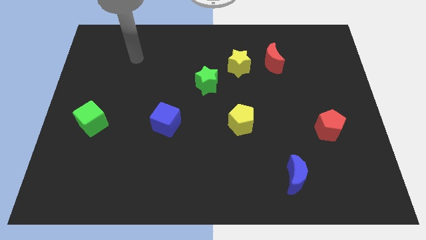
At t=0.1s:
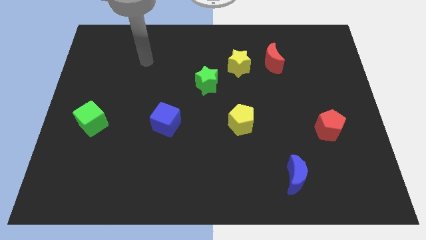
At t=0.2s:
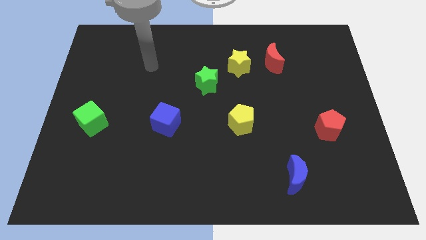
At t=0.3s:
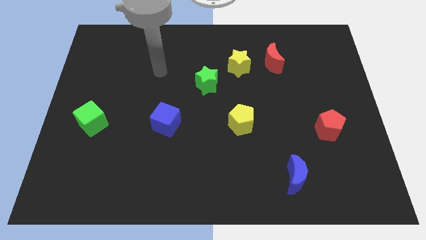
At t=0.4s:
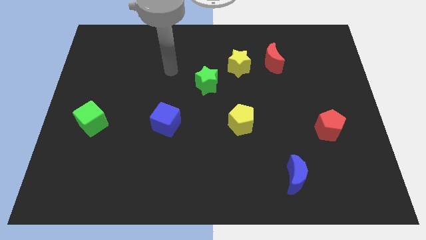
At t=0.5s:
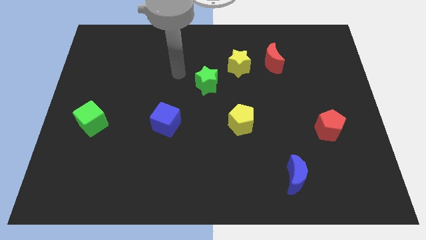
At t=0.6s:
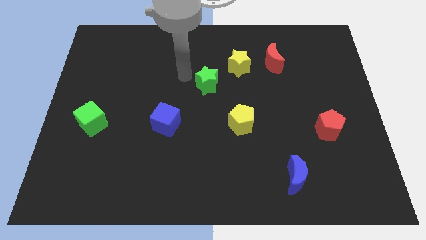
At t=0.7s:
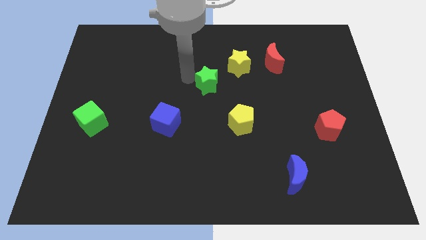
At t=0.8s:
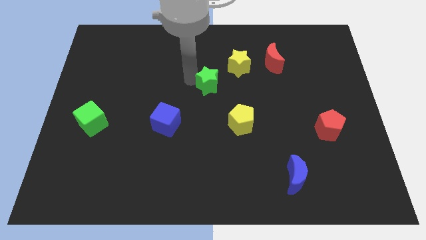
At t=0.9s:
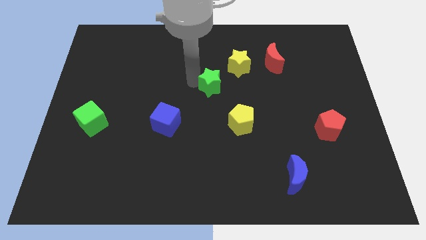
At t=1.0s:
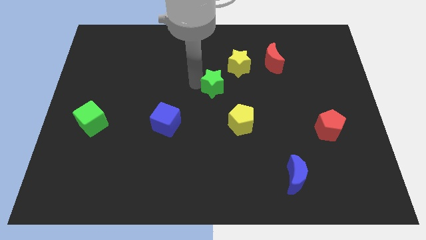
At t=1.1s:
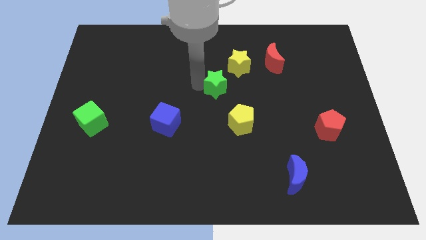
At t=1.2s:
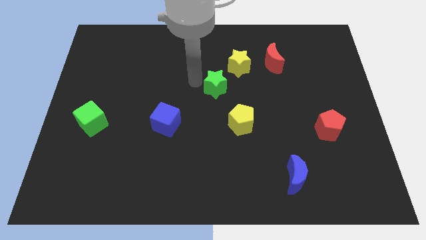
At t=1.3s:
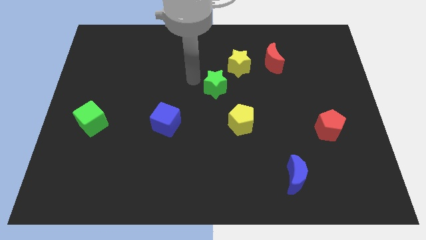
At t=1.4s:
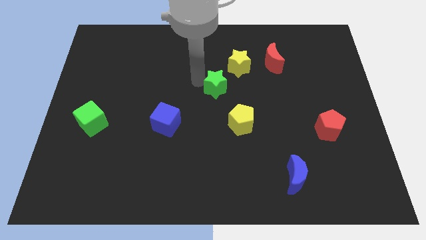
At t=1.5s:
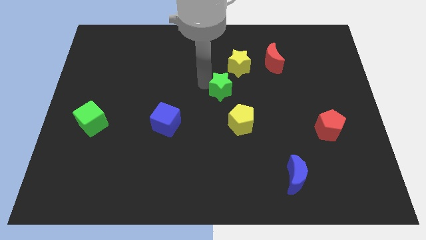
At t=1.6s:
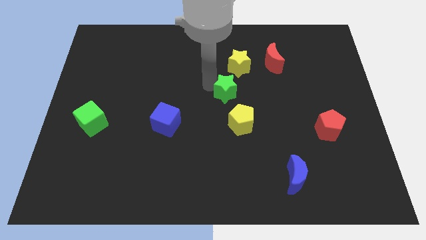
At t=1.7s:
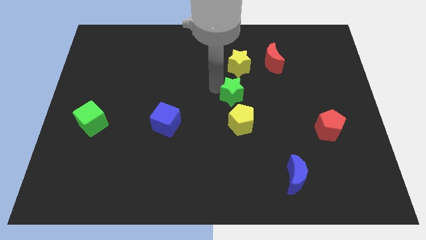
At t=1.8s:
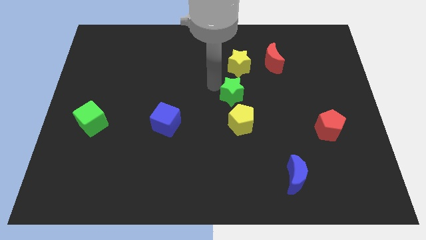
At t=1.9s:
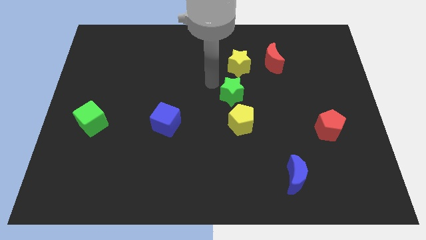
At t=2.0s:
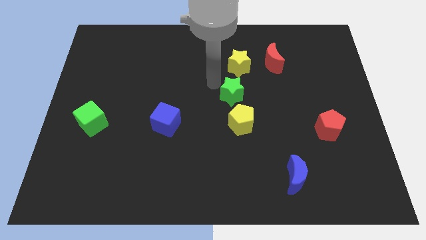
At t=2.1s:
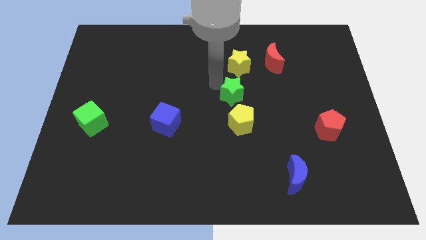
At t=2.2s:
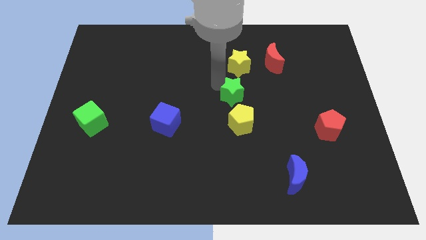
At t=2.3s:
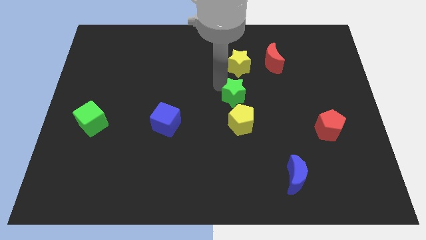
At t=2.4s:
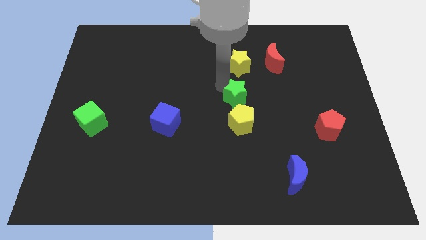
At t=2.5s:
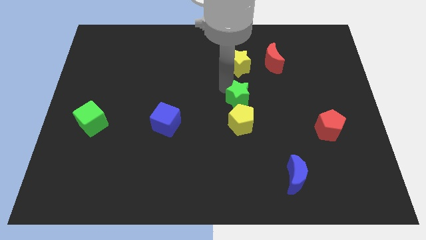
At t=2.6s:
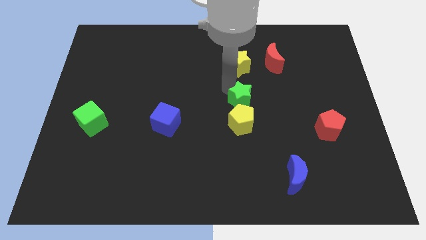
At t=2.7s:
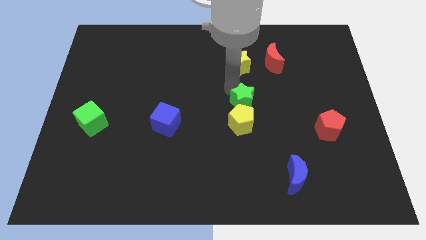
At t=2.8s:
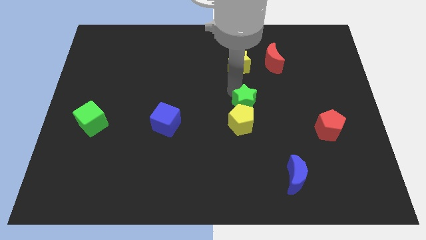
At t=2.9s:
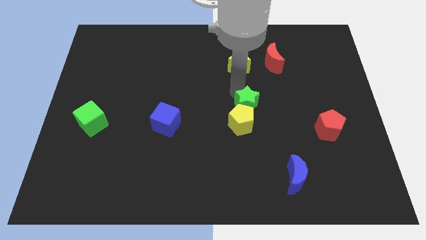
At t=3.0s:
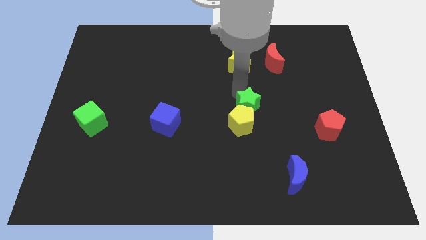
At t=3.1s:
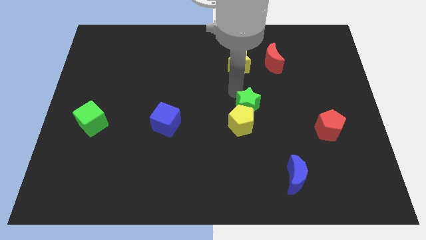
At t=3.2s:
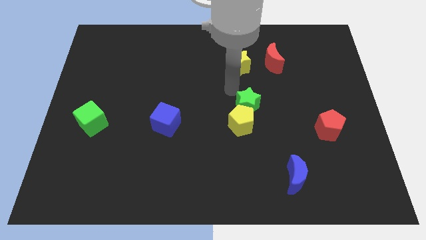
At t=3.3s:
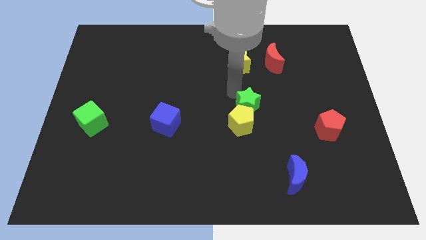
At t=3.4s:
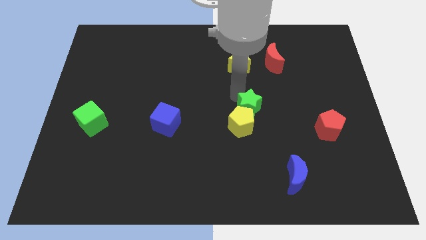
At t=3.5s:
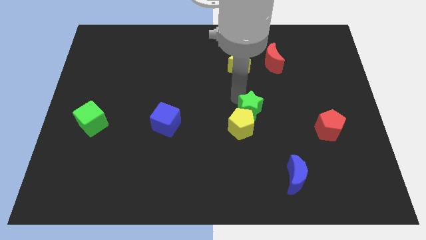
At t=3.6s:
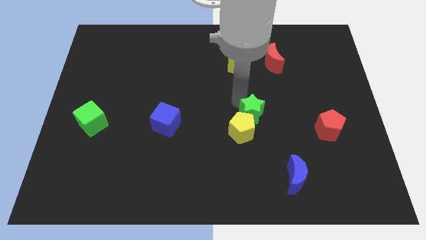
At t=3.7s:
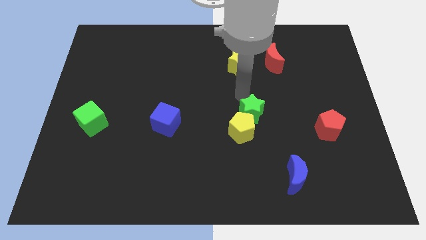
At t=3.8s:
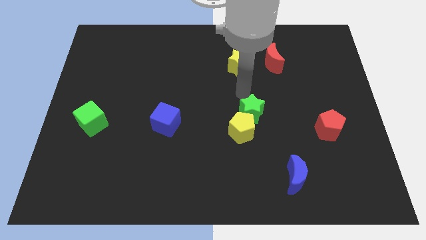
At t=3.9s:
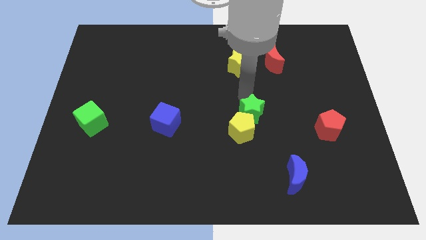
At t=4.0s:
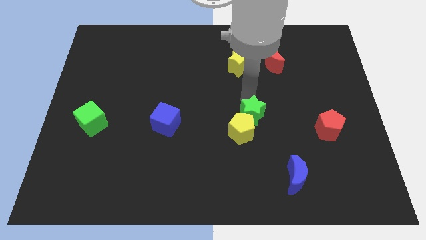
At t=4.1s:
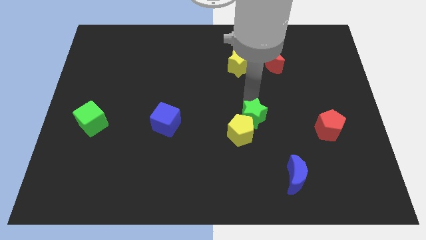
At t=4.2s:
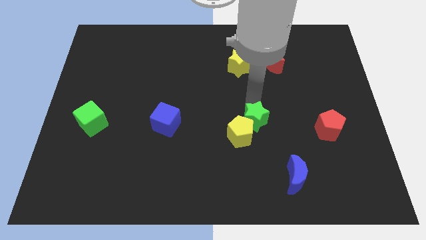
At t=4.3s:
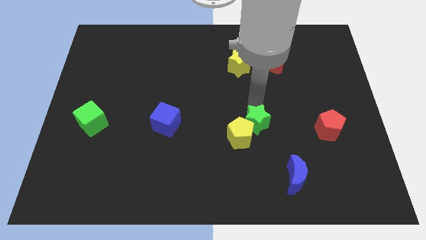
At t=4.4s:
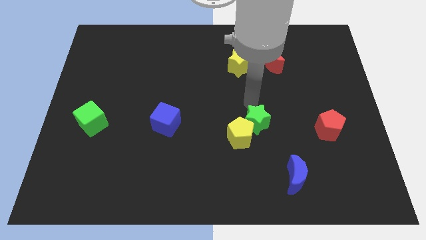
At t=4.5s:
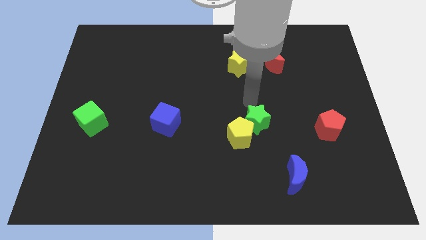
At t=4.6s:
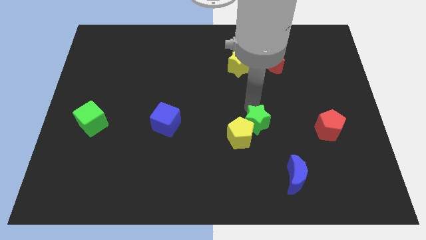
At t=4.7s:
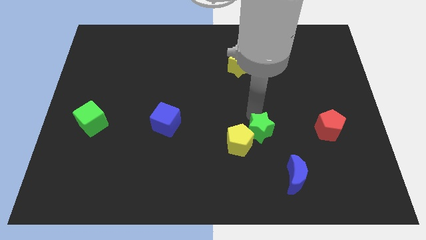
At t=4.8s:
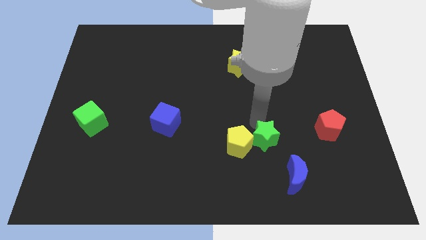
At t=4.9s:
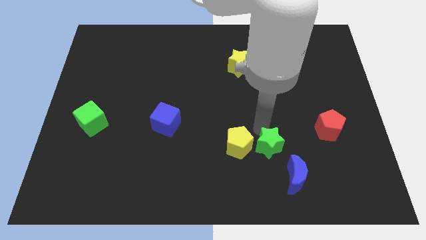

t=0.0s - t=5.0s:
put the green star to the bottom right side of the yellow pentagon

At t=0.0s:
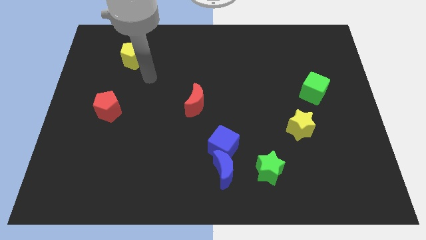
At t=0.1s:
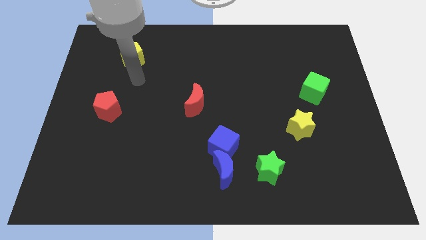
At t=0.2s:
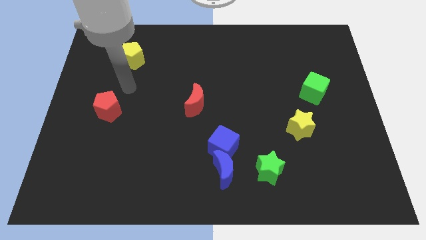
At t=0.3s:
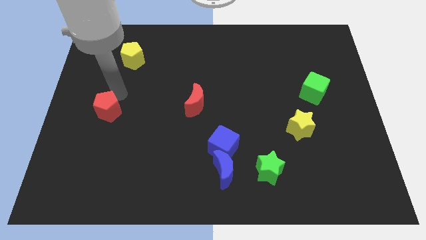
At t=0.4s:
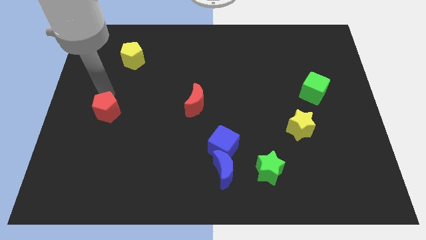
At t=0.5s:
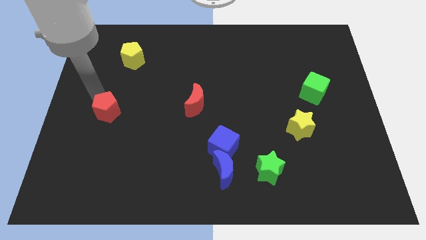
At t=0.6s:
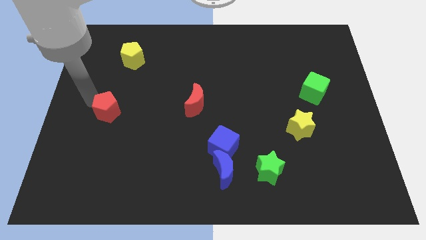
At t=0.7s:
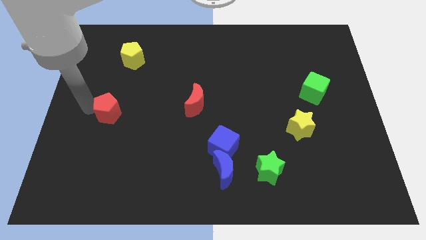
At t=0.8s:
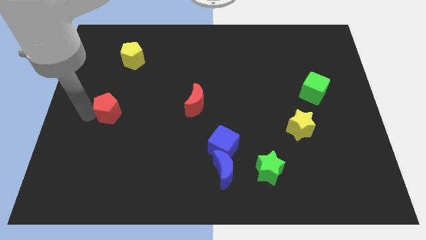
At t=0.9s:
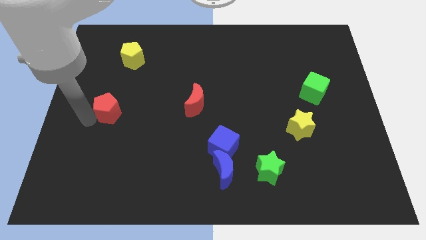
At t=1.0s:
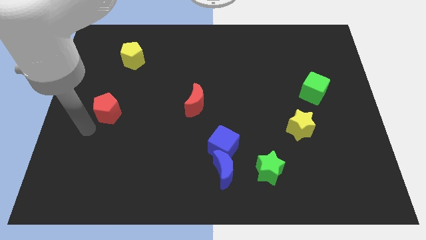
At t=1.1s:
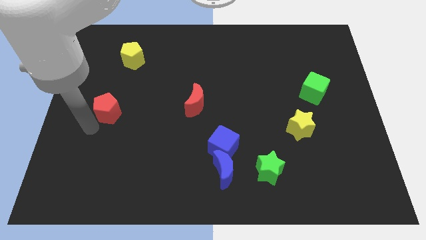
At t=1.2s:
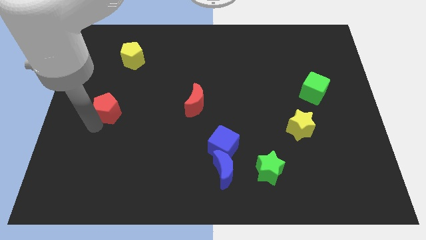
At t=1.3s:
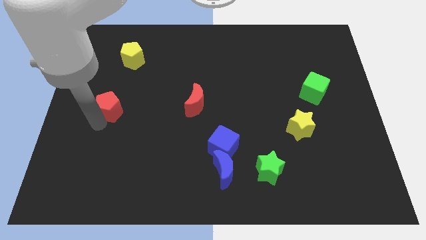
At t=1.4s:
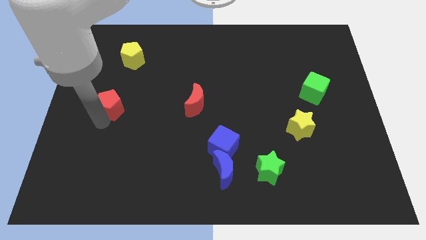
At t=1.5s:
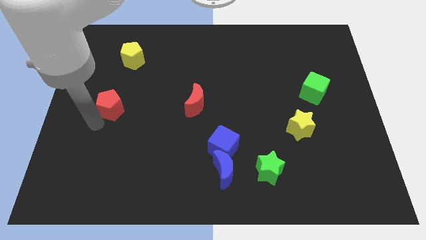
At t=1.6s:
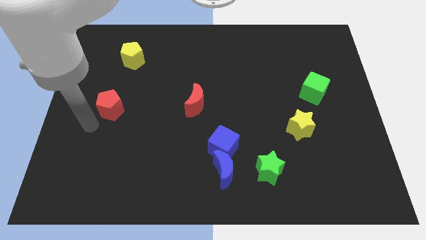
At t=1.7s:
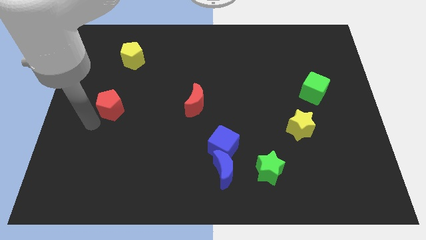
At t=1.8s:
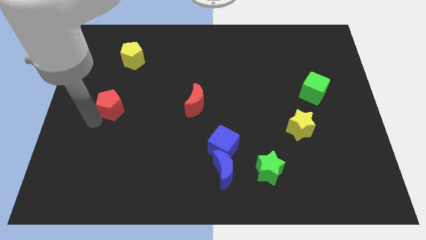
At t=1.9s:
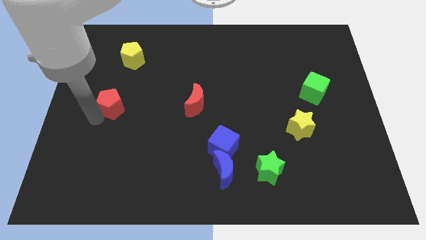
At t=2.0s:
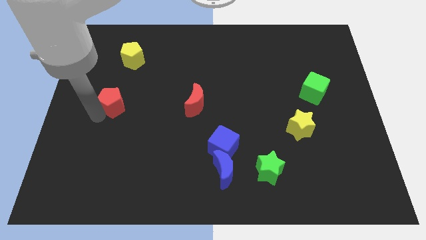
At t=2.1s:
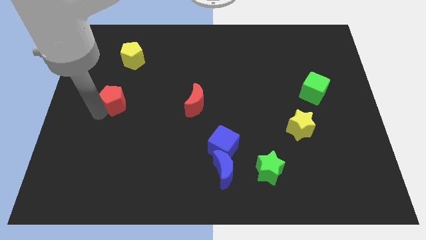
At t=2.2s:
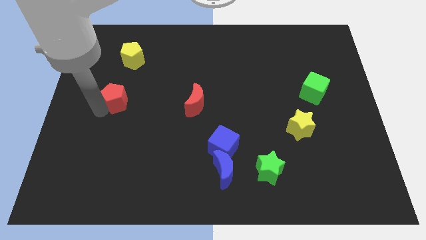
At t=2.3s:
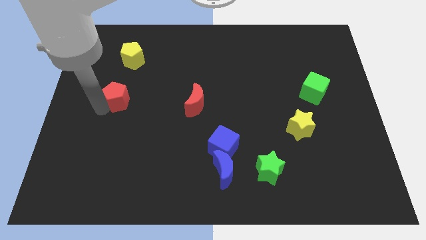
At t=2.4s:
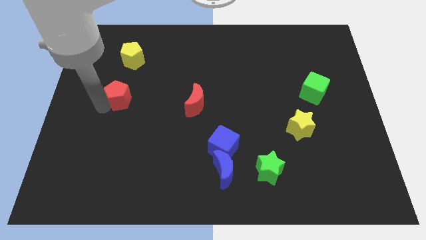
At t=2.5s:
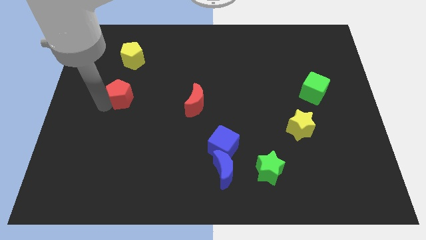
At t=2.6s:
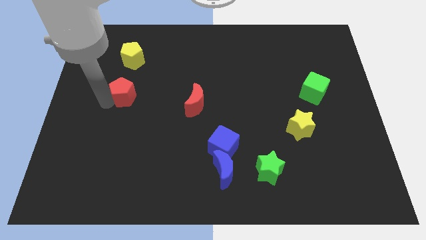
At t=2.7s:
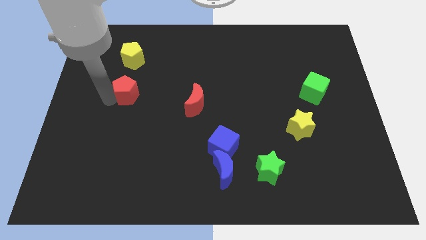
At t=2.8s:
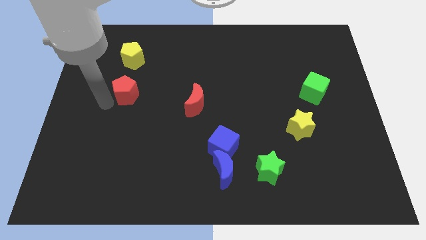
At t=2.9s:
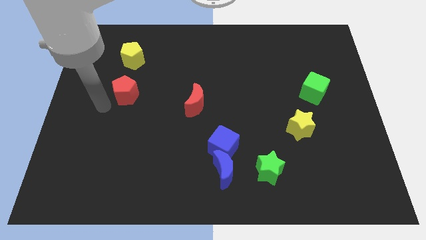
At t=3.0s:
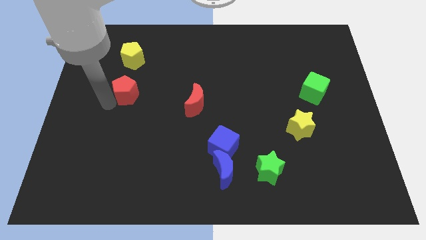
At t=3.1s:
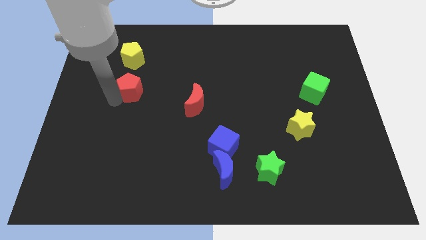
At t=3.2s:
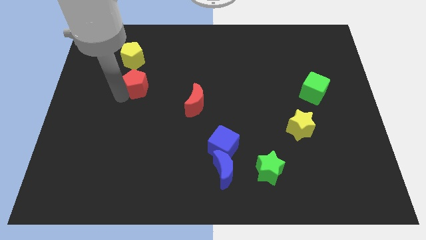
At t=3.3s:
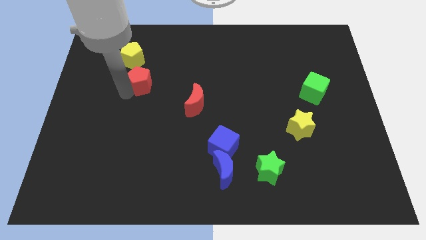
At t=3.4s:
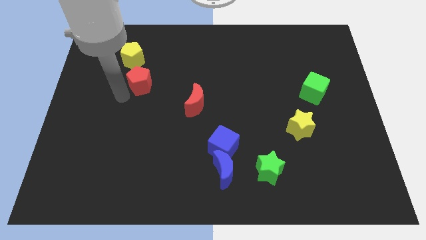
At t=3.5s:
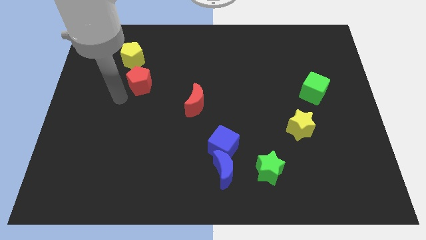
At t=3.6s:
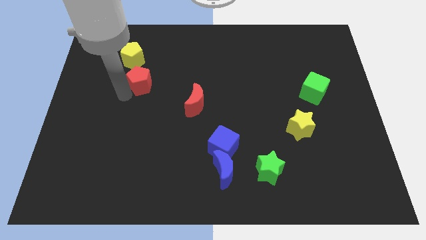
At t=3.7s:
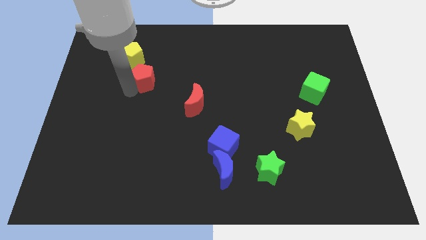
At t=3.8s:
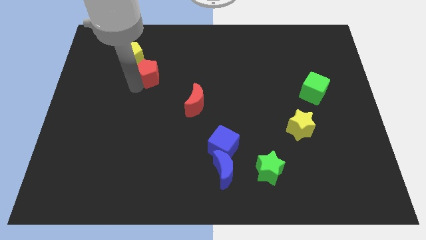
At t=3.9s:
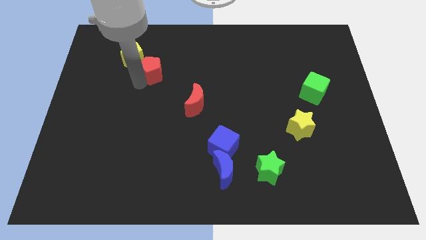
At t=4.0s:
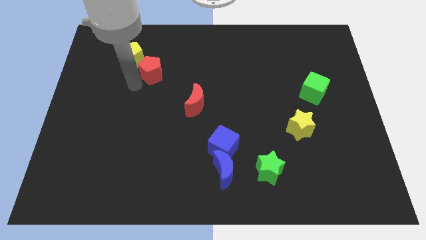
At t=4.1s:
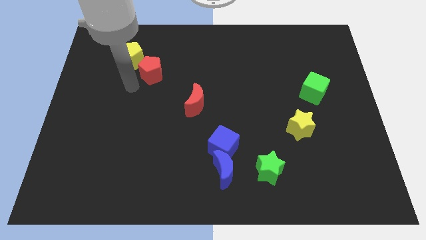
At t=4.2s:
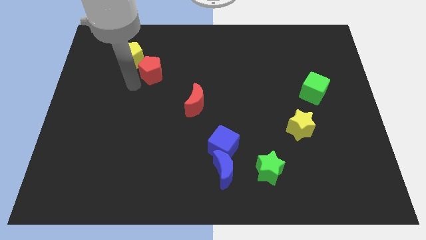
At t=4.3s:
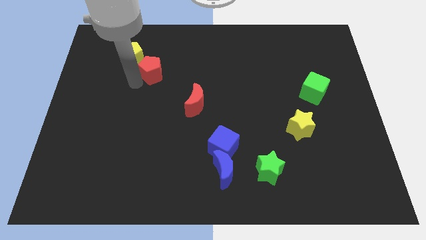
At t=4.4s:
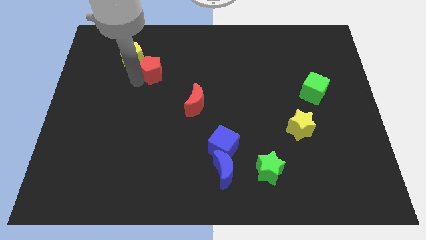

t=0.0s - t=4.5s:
slide the red pentagon to the right side of the yellow pentagon
